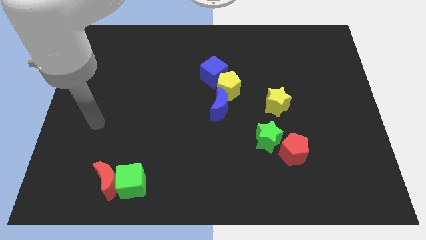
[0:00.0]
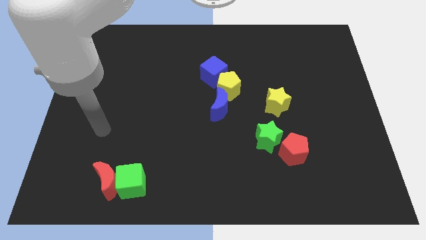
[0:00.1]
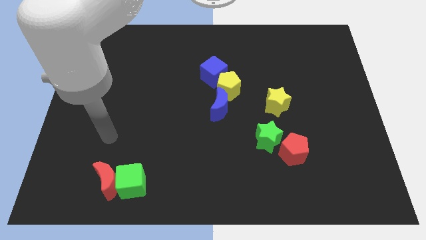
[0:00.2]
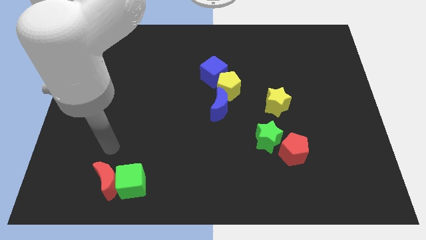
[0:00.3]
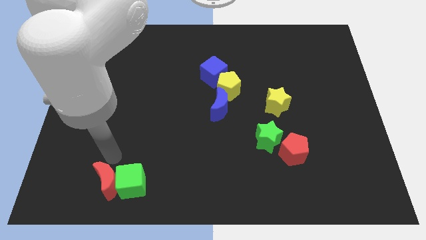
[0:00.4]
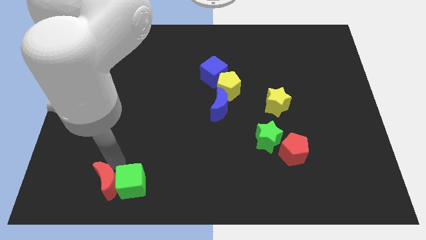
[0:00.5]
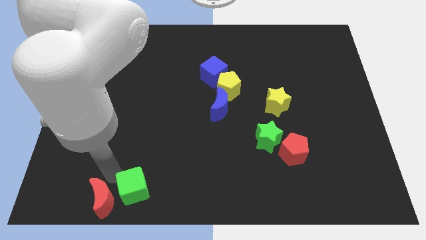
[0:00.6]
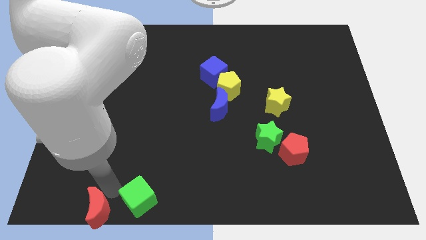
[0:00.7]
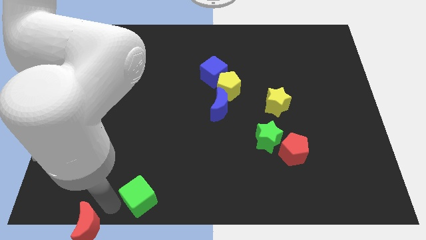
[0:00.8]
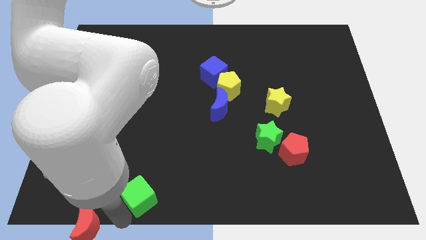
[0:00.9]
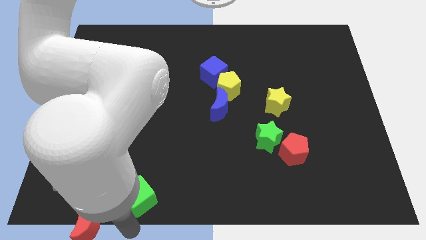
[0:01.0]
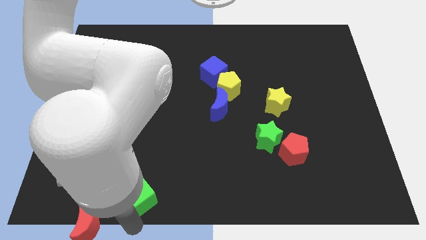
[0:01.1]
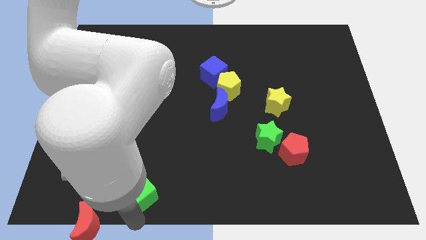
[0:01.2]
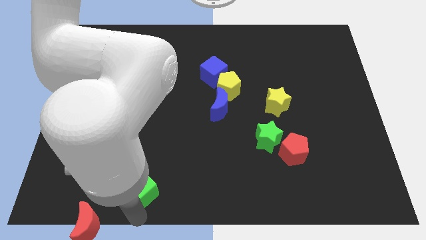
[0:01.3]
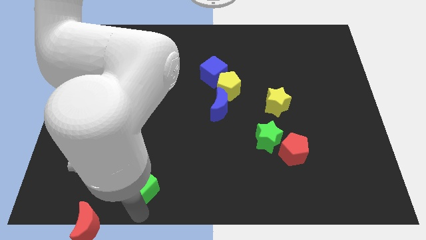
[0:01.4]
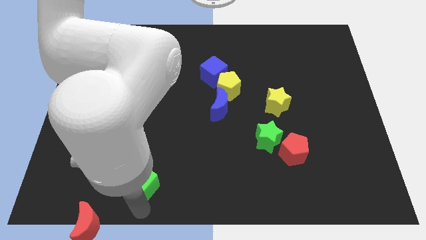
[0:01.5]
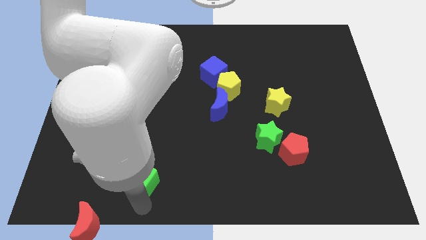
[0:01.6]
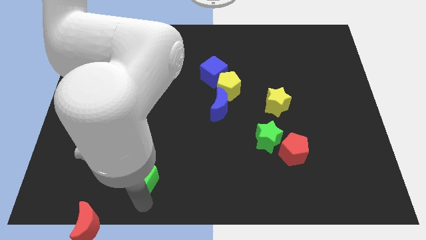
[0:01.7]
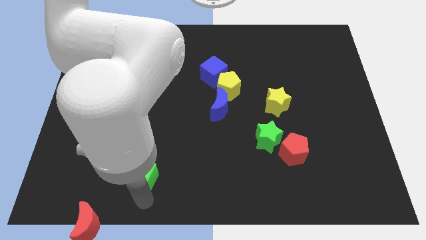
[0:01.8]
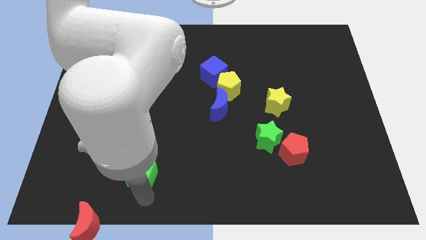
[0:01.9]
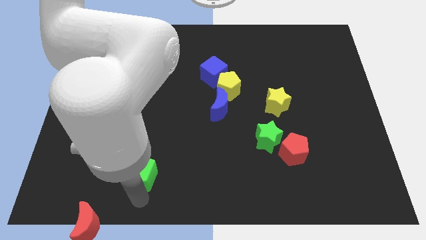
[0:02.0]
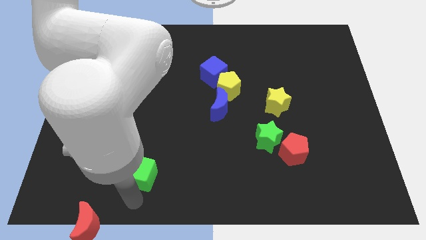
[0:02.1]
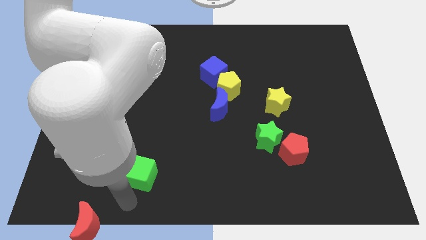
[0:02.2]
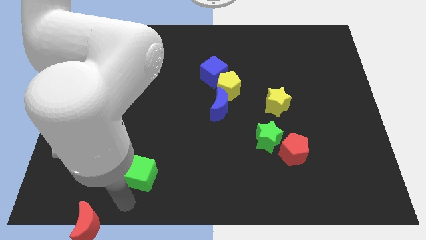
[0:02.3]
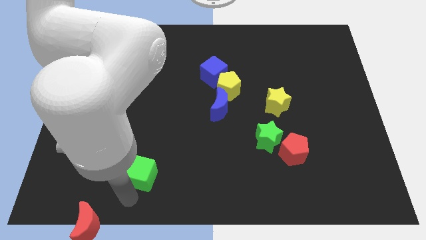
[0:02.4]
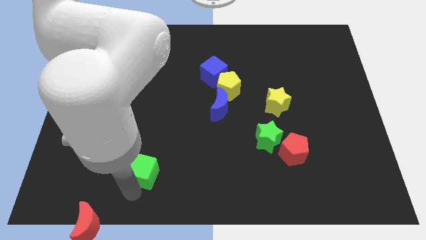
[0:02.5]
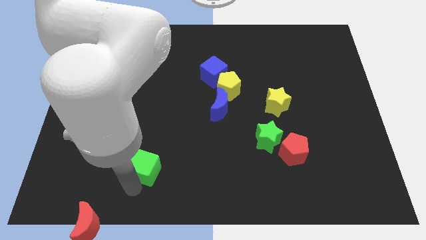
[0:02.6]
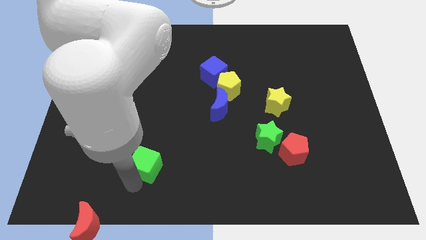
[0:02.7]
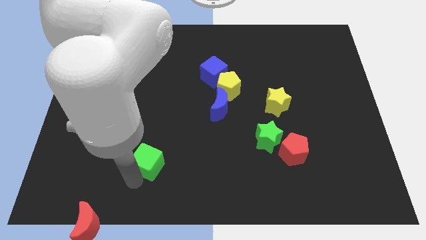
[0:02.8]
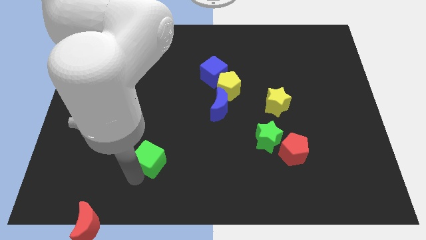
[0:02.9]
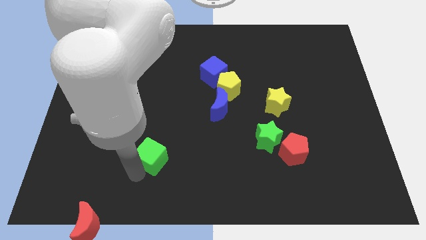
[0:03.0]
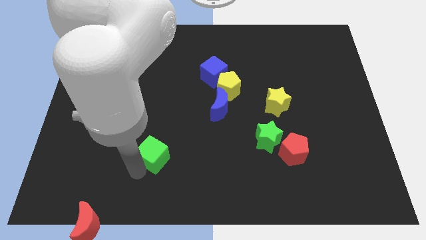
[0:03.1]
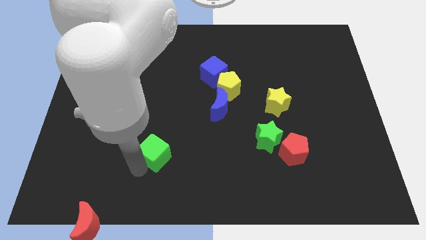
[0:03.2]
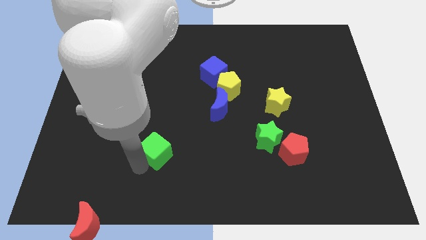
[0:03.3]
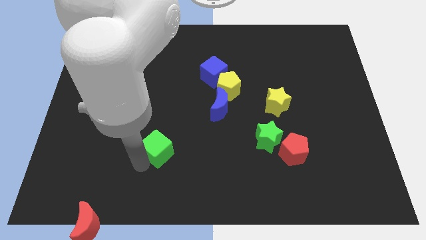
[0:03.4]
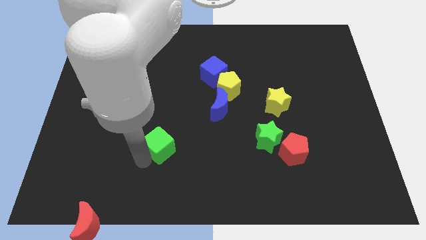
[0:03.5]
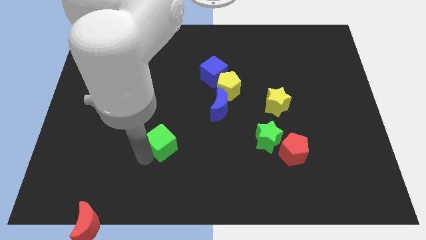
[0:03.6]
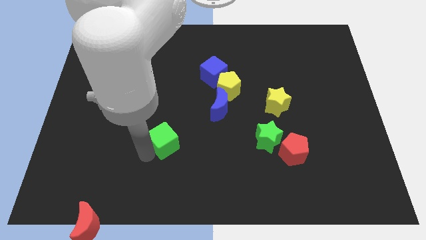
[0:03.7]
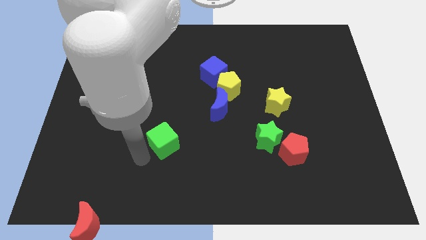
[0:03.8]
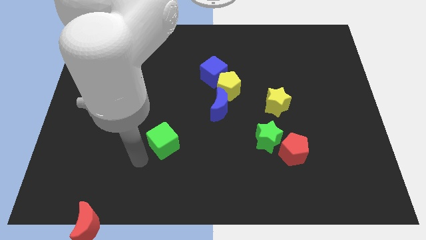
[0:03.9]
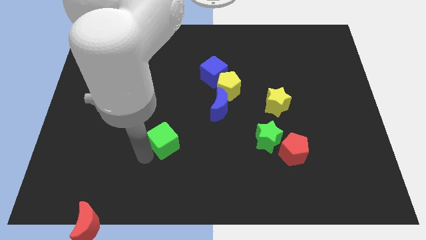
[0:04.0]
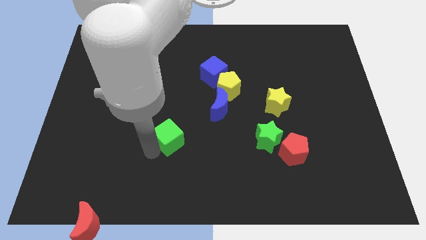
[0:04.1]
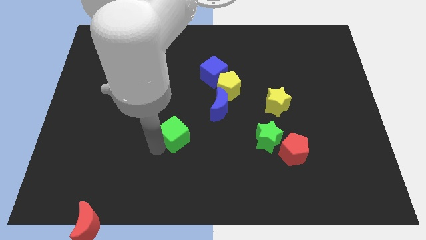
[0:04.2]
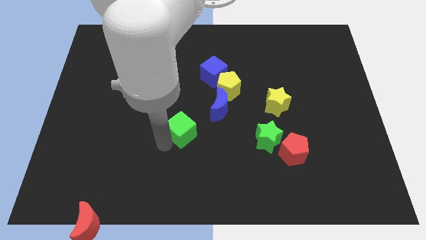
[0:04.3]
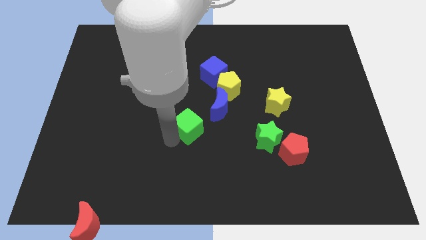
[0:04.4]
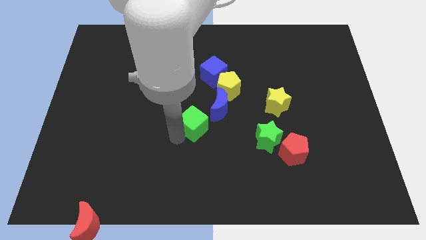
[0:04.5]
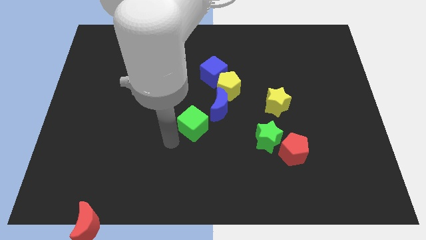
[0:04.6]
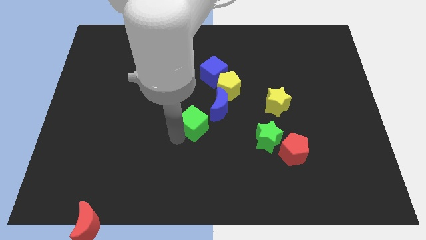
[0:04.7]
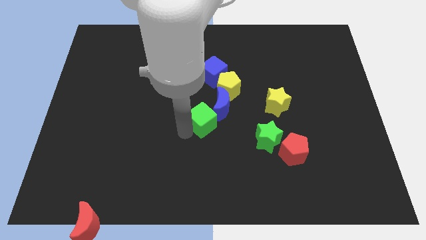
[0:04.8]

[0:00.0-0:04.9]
push the green cube next to the blue moon

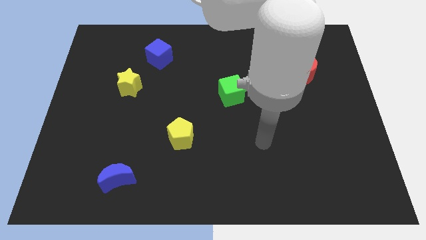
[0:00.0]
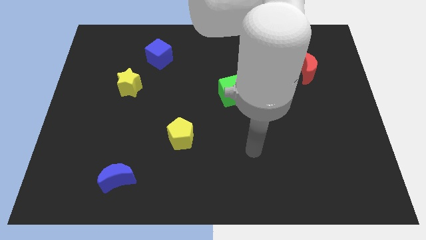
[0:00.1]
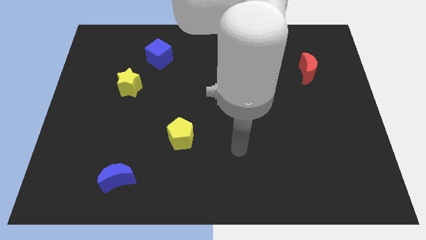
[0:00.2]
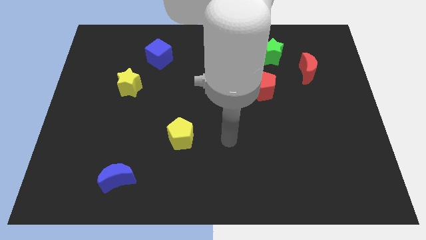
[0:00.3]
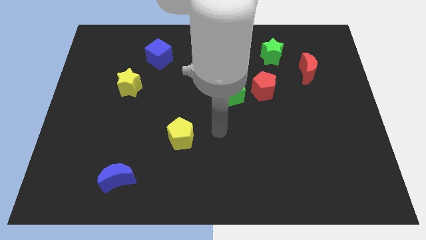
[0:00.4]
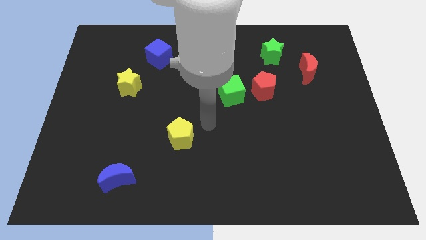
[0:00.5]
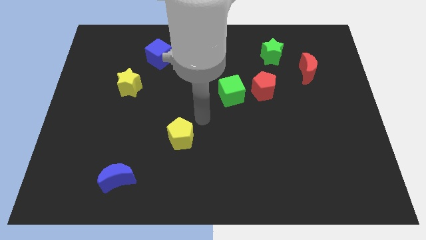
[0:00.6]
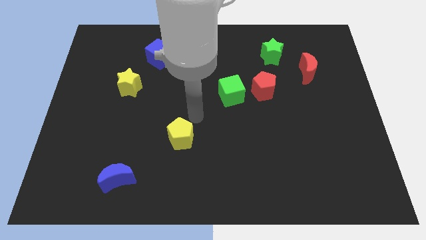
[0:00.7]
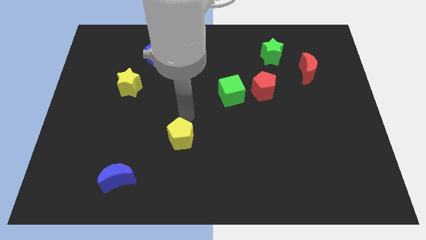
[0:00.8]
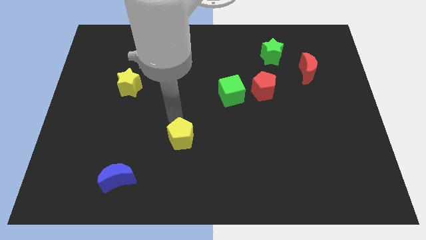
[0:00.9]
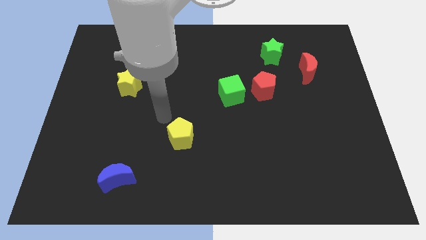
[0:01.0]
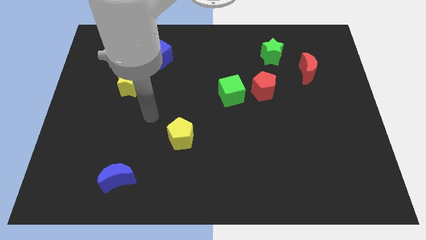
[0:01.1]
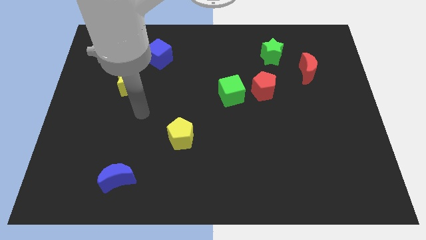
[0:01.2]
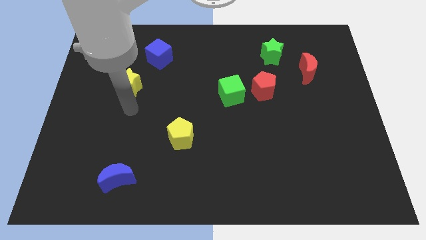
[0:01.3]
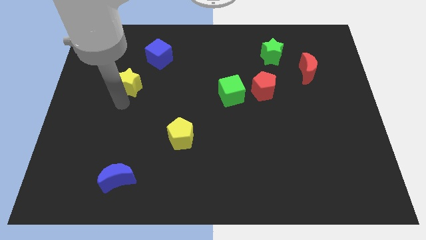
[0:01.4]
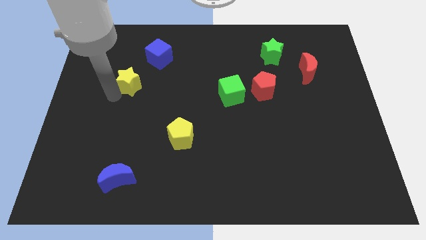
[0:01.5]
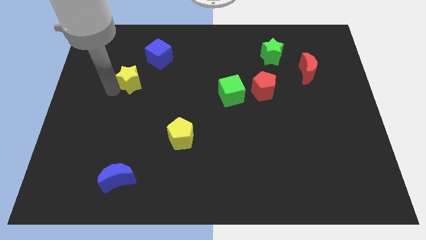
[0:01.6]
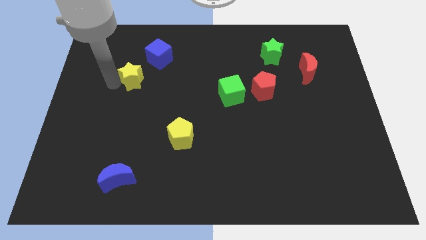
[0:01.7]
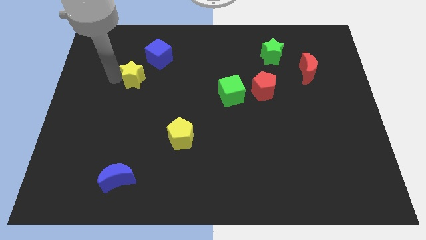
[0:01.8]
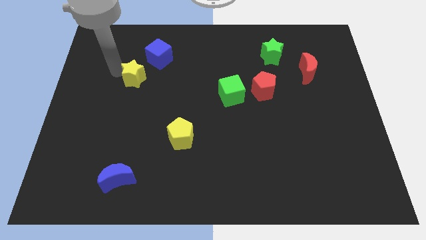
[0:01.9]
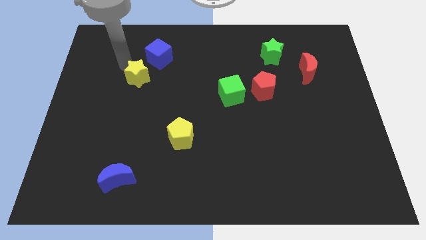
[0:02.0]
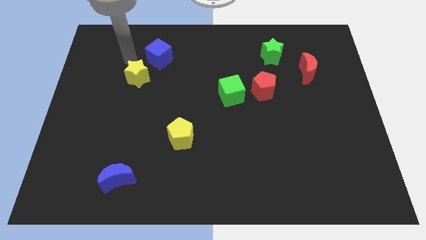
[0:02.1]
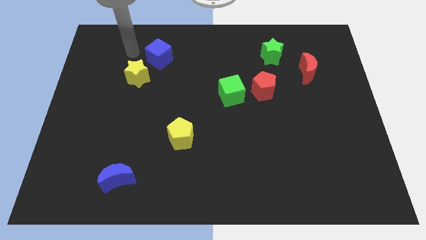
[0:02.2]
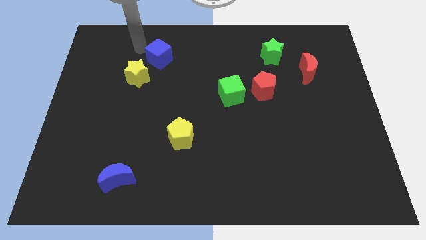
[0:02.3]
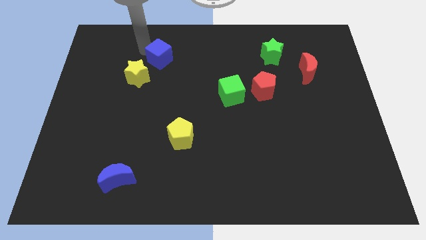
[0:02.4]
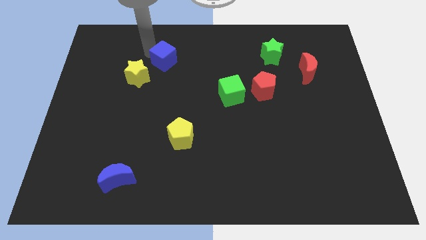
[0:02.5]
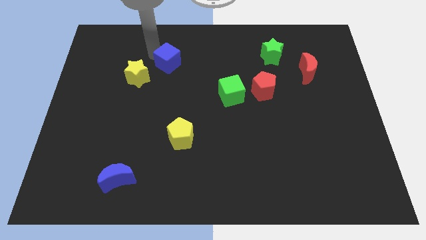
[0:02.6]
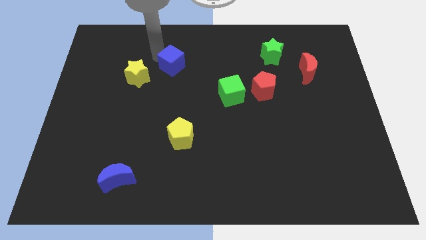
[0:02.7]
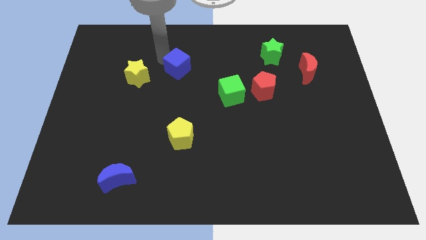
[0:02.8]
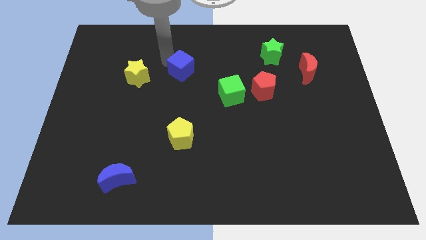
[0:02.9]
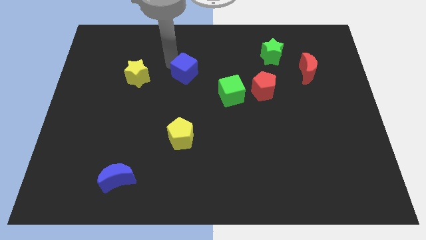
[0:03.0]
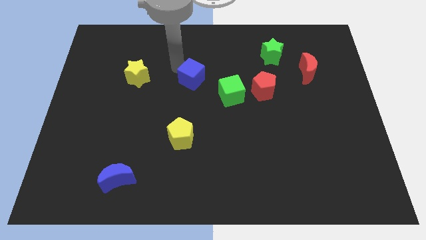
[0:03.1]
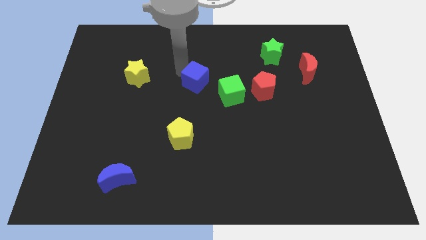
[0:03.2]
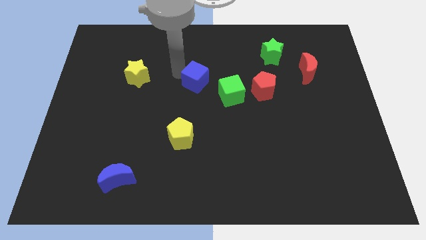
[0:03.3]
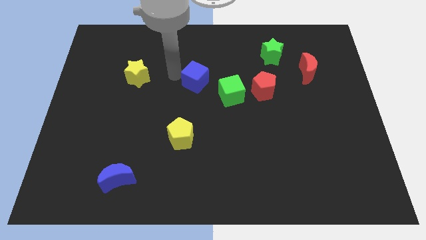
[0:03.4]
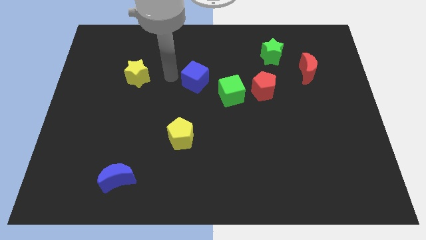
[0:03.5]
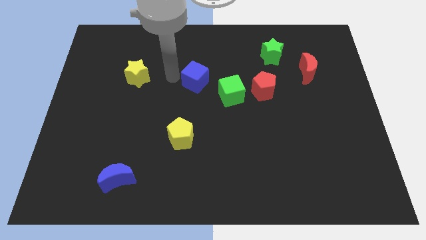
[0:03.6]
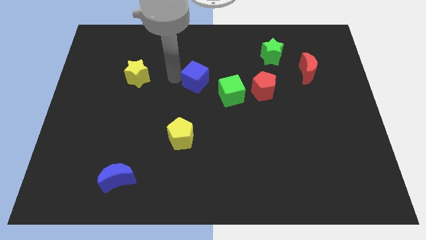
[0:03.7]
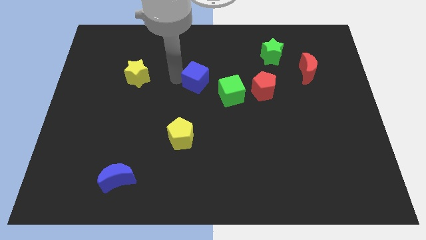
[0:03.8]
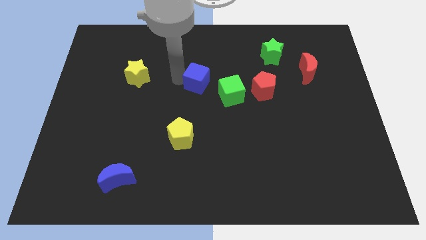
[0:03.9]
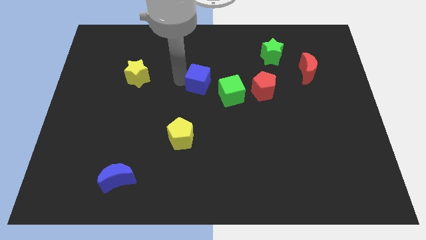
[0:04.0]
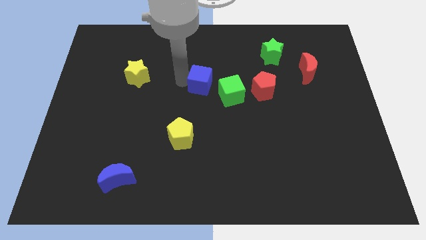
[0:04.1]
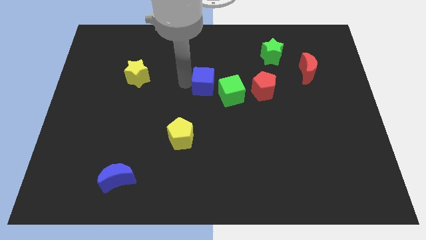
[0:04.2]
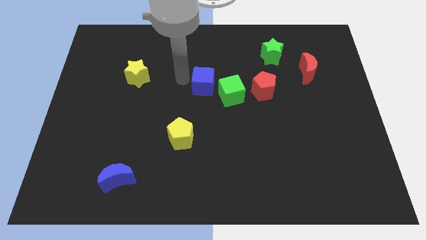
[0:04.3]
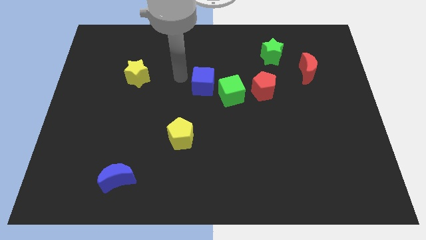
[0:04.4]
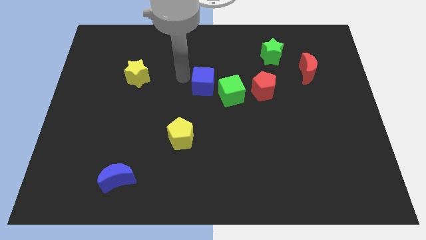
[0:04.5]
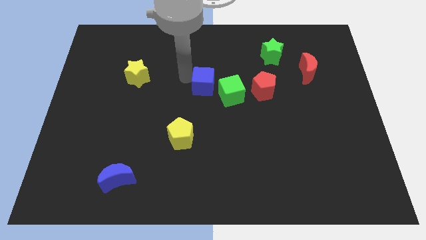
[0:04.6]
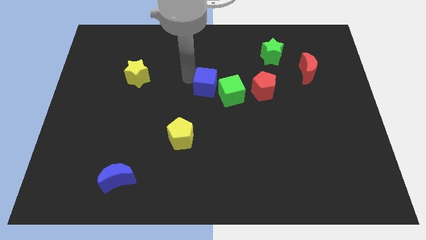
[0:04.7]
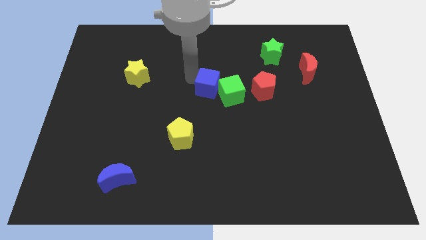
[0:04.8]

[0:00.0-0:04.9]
move the blue cube close to the green cube
